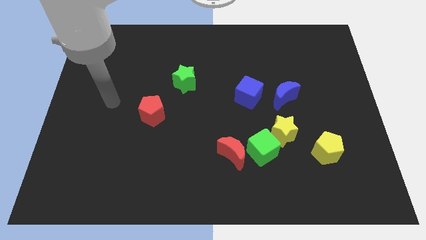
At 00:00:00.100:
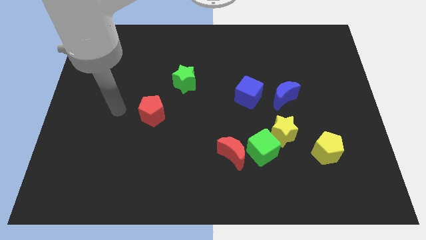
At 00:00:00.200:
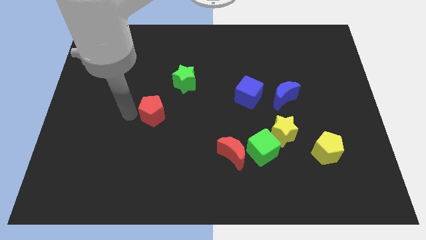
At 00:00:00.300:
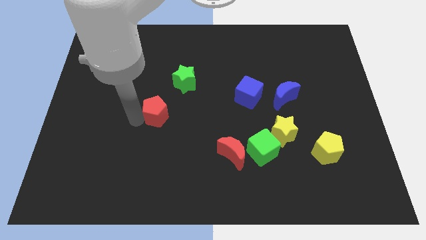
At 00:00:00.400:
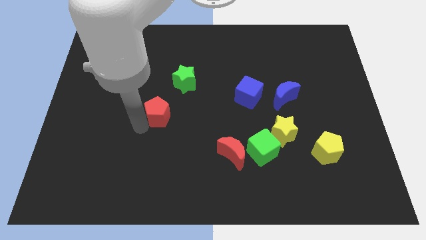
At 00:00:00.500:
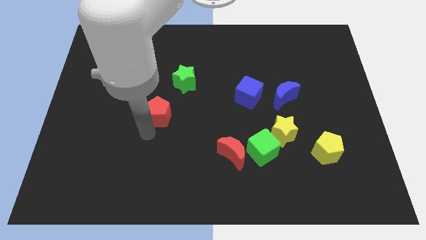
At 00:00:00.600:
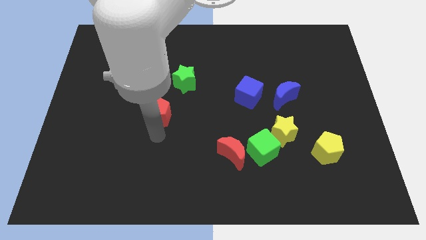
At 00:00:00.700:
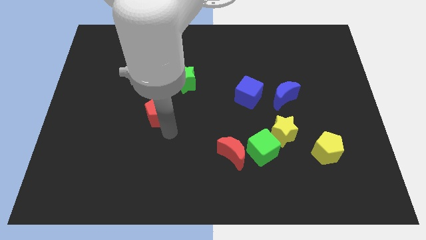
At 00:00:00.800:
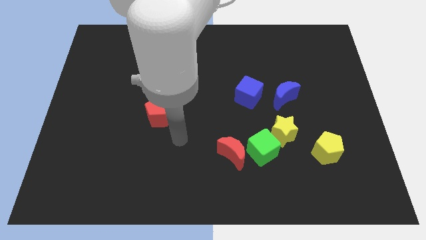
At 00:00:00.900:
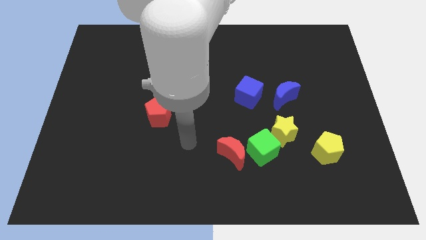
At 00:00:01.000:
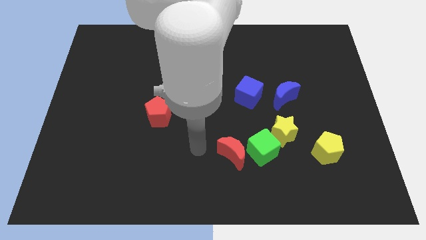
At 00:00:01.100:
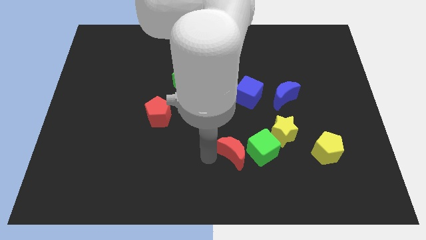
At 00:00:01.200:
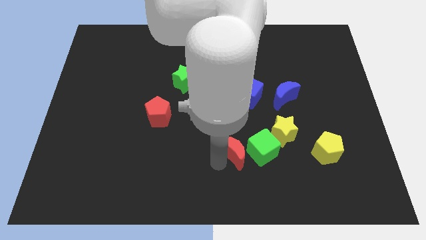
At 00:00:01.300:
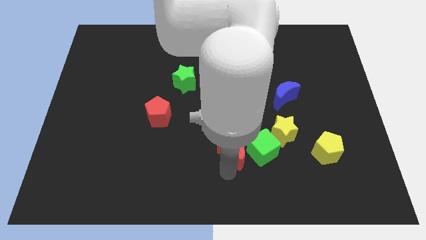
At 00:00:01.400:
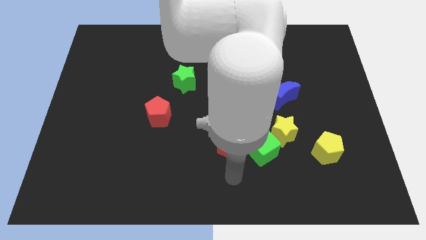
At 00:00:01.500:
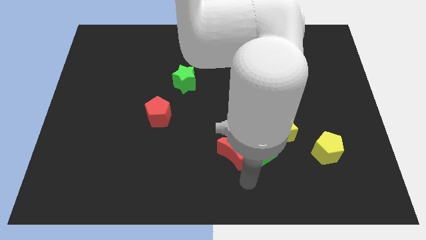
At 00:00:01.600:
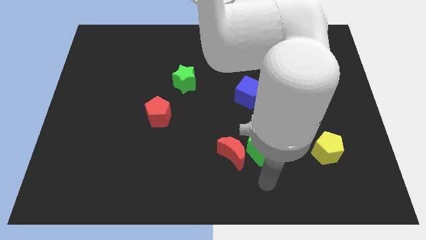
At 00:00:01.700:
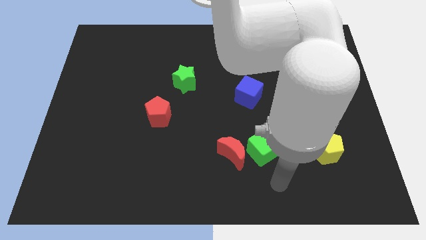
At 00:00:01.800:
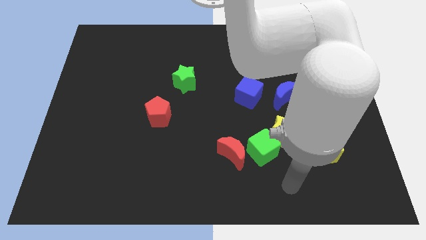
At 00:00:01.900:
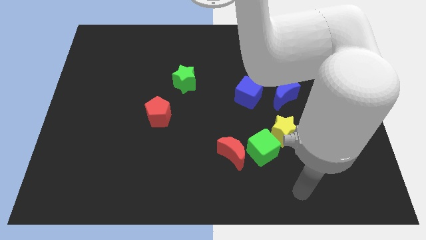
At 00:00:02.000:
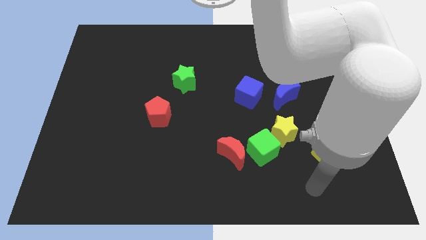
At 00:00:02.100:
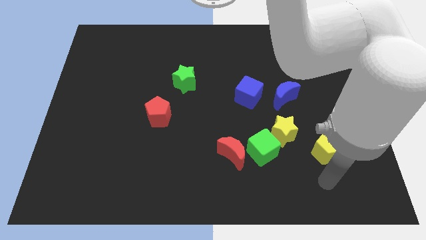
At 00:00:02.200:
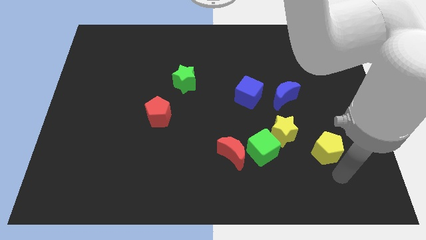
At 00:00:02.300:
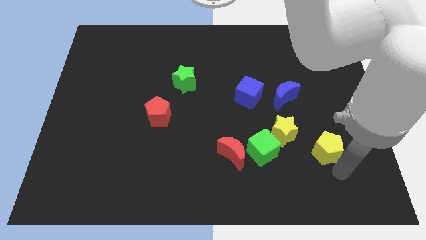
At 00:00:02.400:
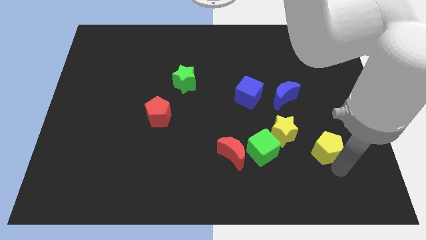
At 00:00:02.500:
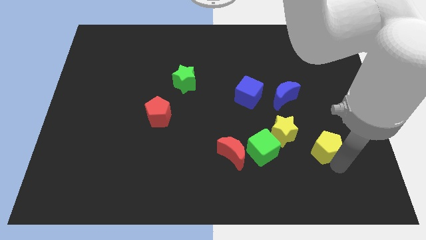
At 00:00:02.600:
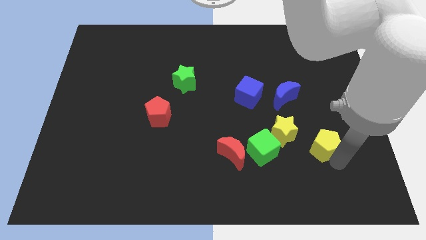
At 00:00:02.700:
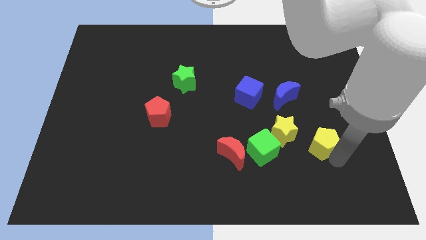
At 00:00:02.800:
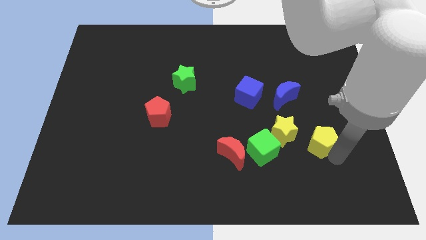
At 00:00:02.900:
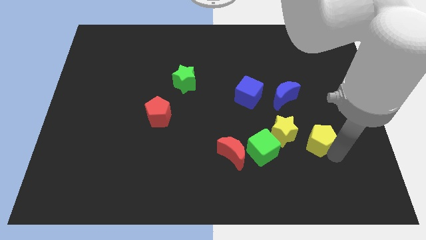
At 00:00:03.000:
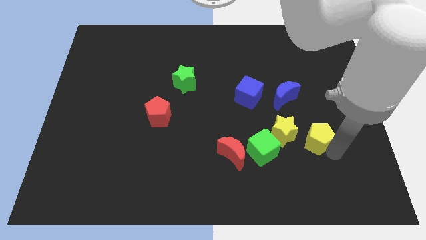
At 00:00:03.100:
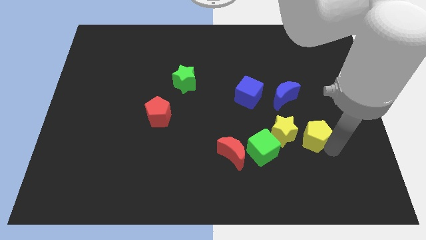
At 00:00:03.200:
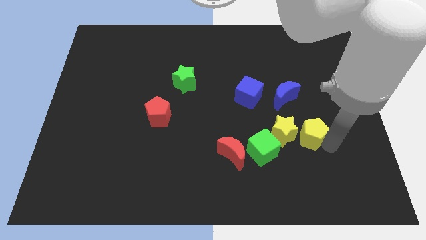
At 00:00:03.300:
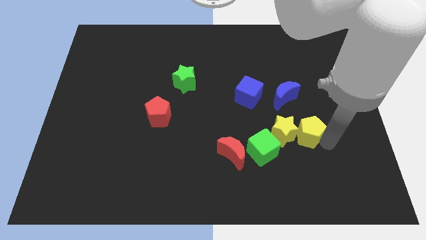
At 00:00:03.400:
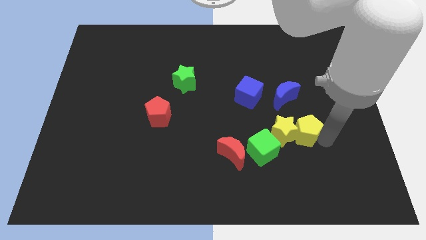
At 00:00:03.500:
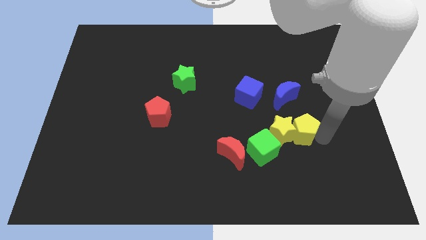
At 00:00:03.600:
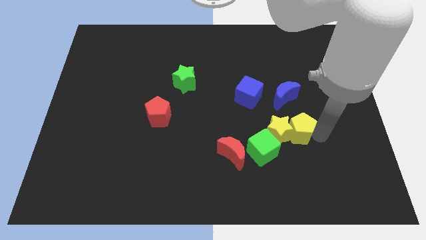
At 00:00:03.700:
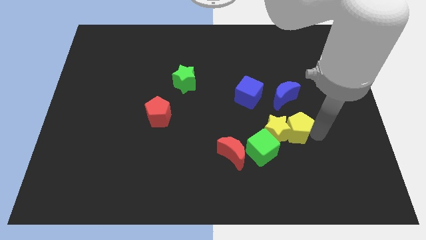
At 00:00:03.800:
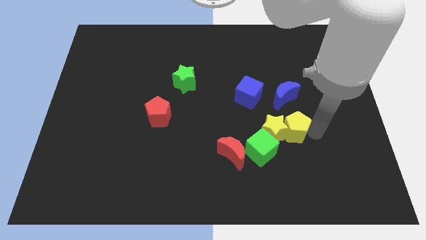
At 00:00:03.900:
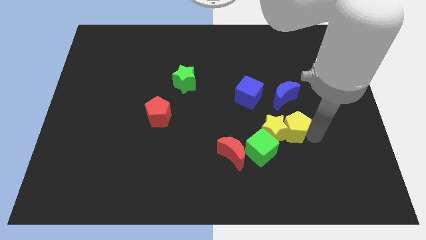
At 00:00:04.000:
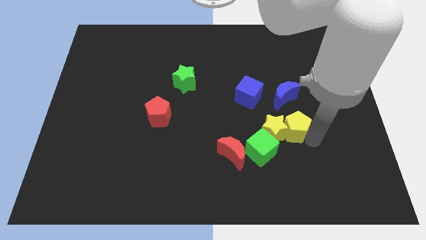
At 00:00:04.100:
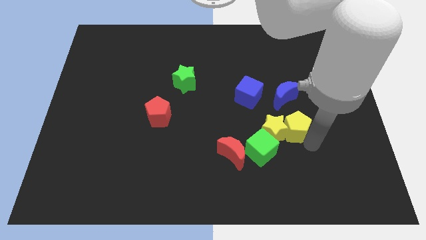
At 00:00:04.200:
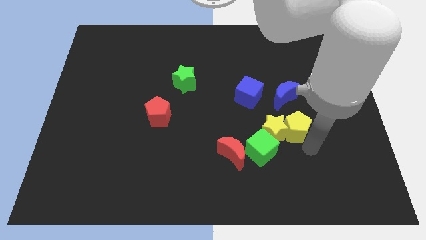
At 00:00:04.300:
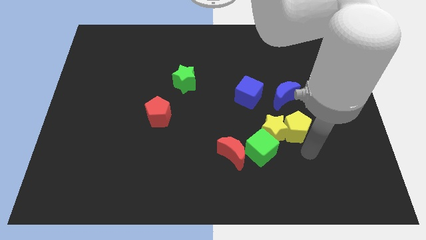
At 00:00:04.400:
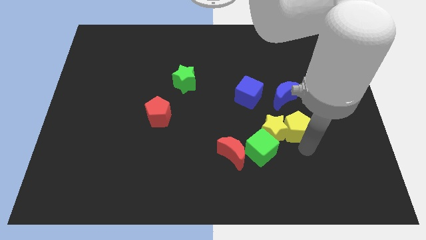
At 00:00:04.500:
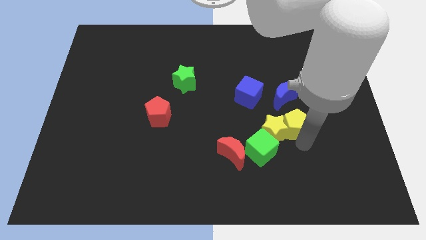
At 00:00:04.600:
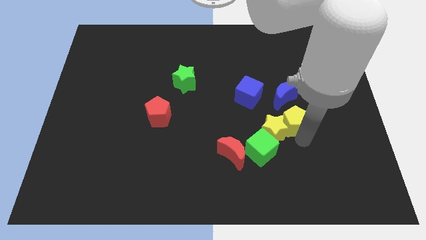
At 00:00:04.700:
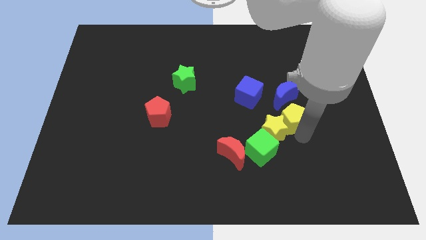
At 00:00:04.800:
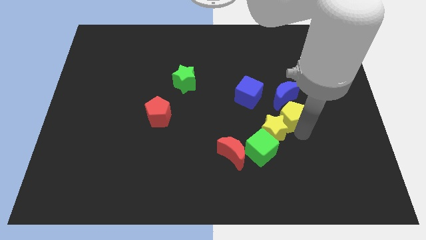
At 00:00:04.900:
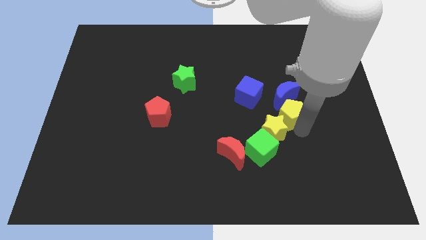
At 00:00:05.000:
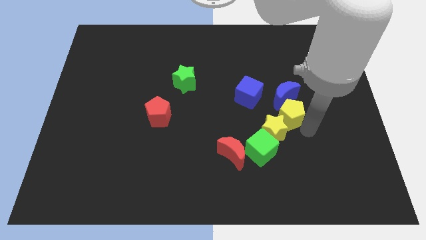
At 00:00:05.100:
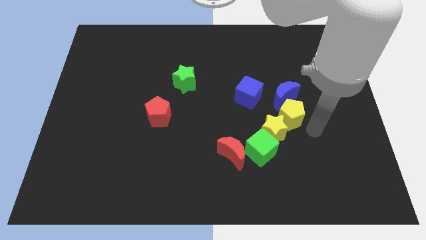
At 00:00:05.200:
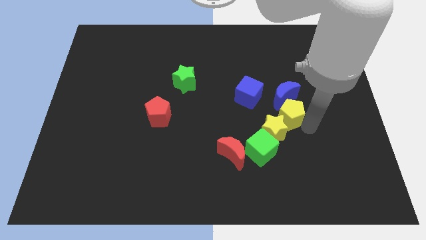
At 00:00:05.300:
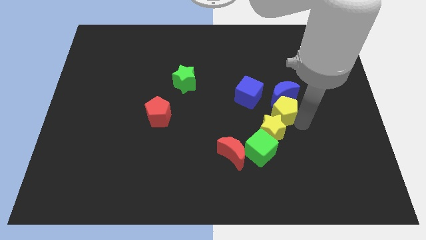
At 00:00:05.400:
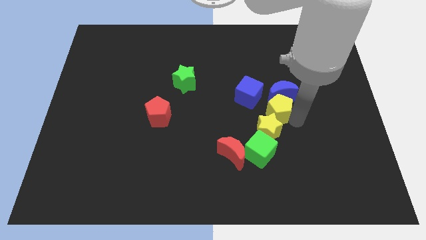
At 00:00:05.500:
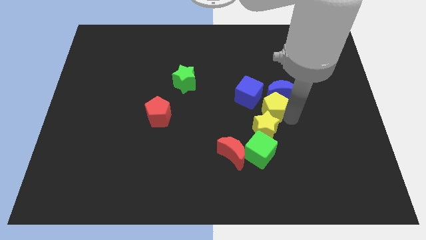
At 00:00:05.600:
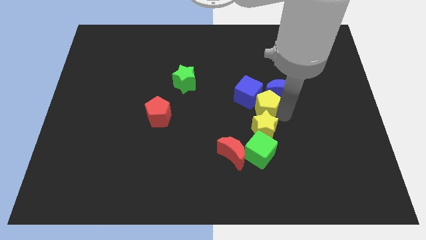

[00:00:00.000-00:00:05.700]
move the yellow pentagon close to the blue cube

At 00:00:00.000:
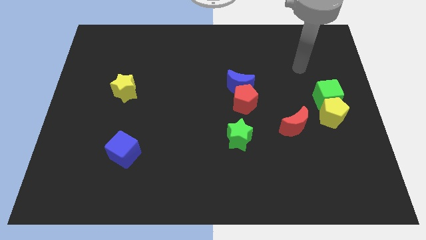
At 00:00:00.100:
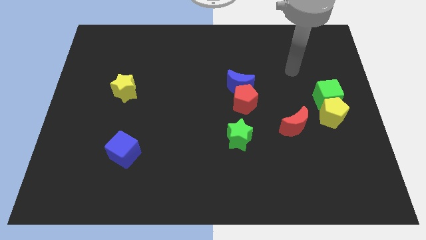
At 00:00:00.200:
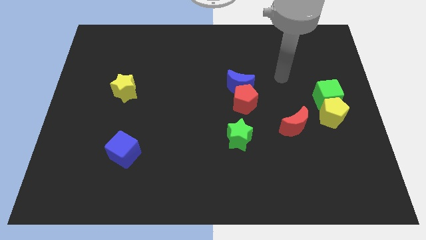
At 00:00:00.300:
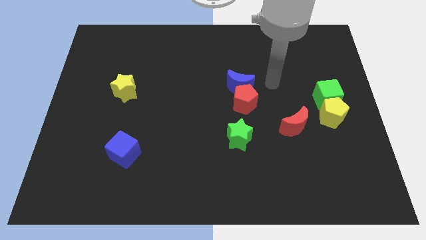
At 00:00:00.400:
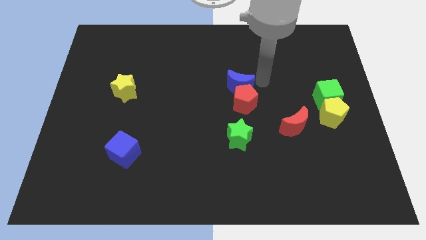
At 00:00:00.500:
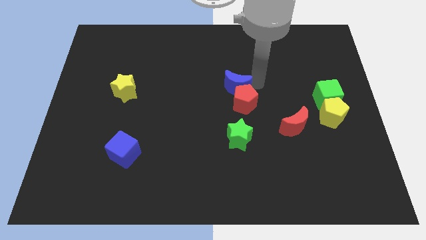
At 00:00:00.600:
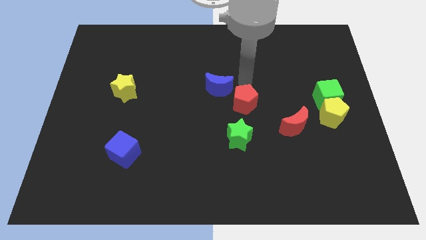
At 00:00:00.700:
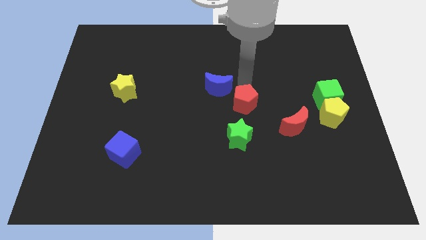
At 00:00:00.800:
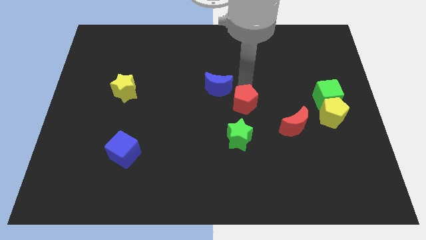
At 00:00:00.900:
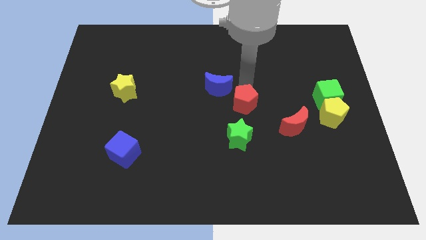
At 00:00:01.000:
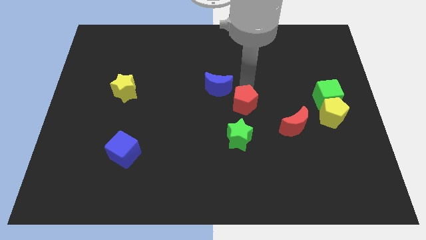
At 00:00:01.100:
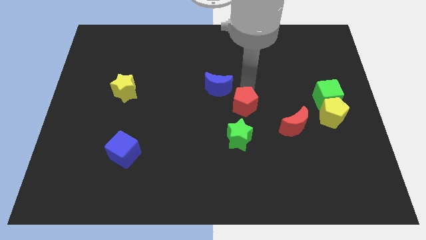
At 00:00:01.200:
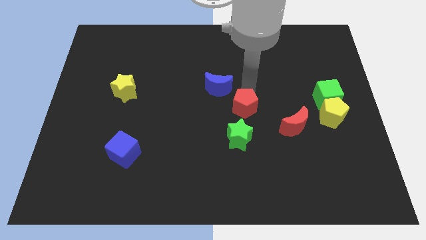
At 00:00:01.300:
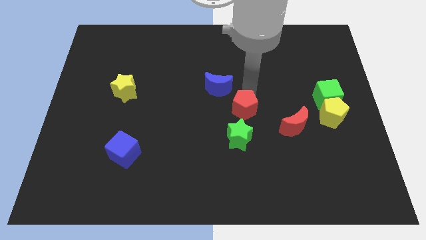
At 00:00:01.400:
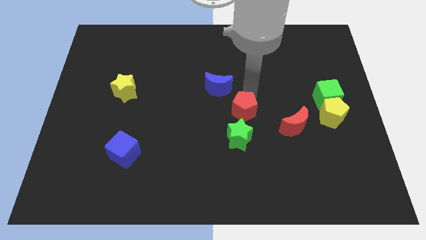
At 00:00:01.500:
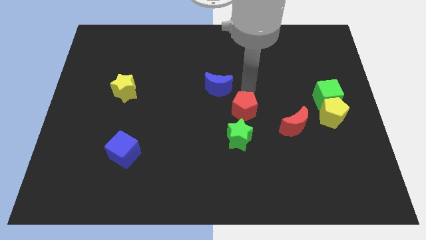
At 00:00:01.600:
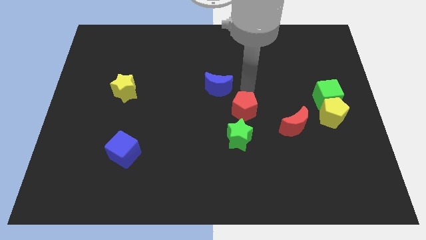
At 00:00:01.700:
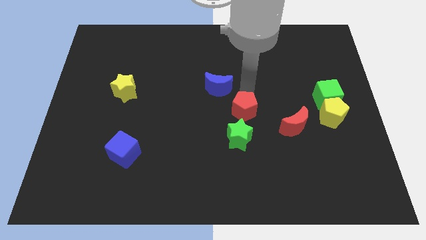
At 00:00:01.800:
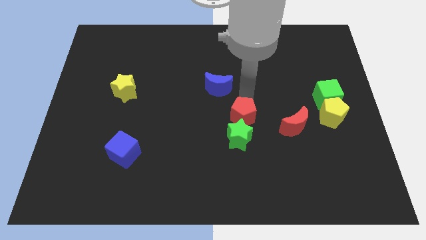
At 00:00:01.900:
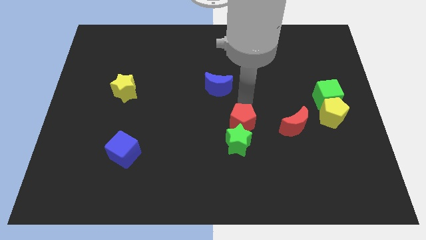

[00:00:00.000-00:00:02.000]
slide the red pentagon to the green star
